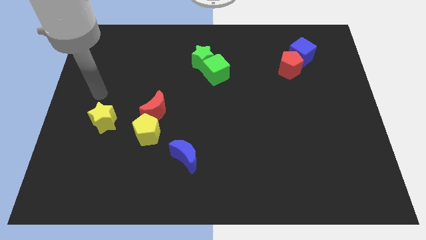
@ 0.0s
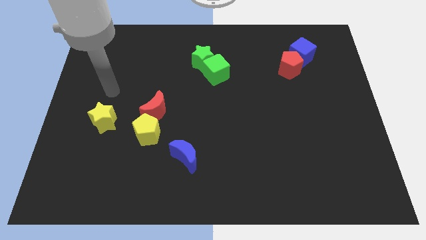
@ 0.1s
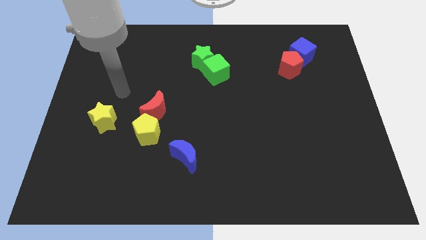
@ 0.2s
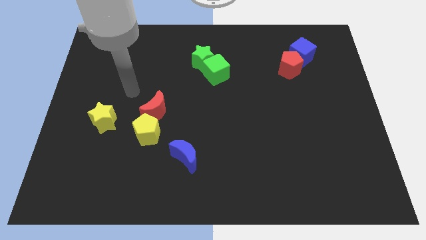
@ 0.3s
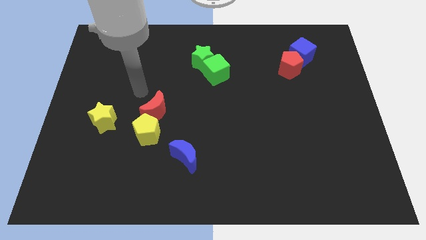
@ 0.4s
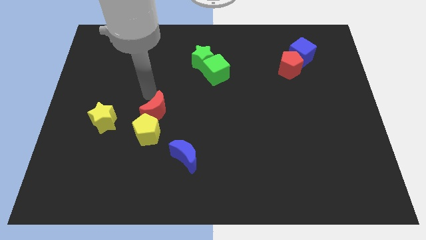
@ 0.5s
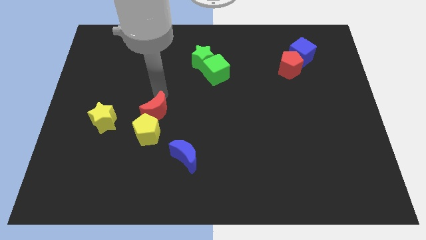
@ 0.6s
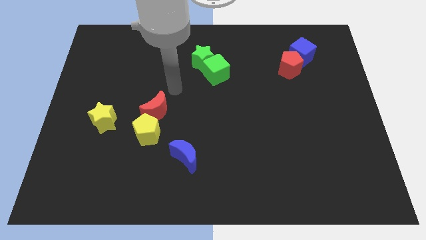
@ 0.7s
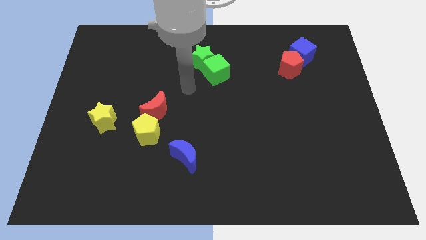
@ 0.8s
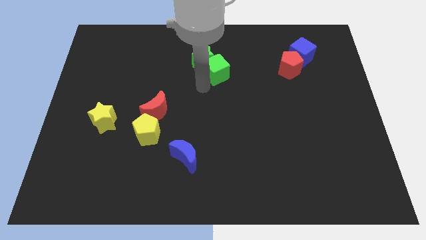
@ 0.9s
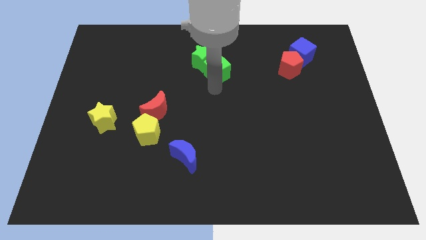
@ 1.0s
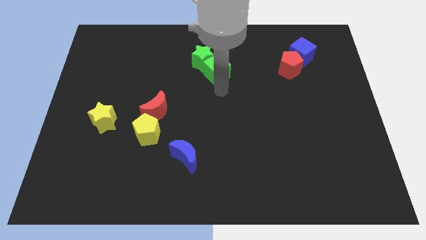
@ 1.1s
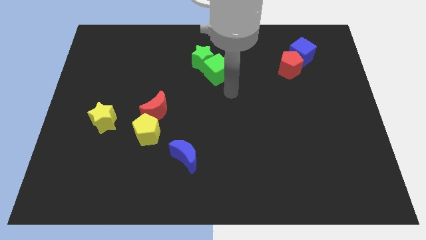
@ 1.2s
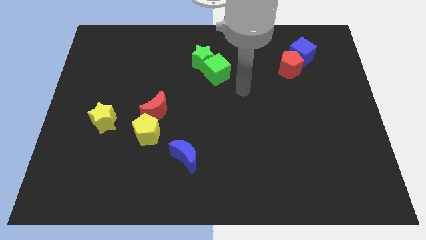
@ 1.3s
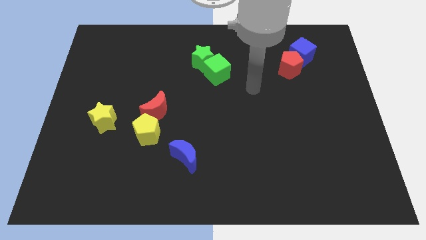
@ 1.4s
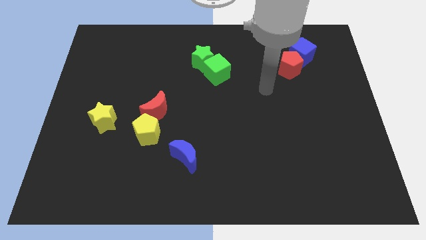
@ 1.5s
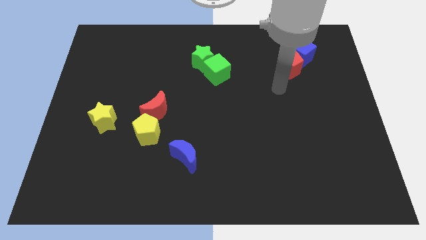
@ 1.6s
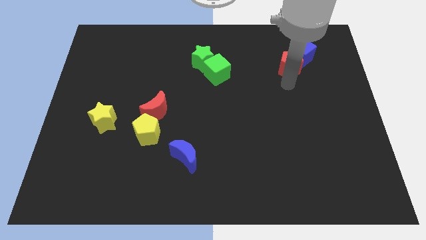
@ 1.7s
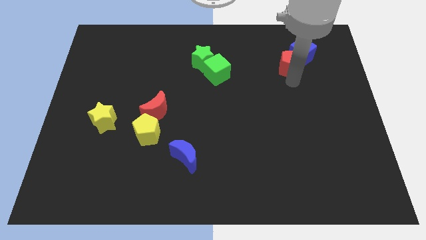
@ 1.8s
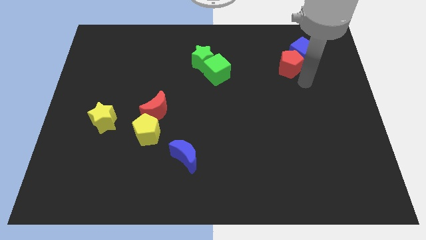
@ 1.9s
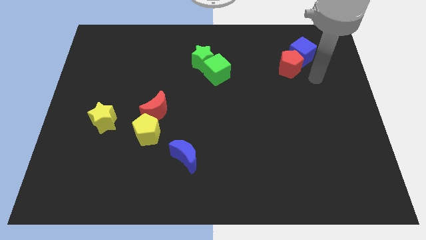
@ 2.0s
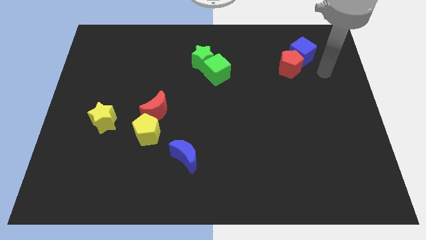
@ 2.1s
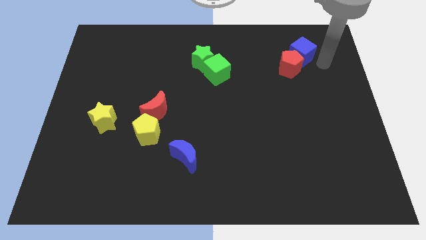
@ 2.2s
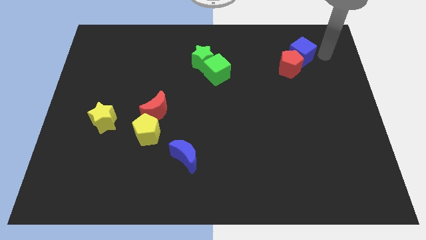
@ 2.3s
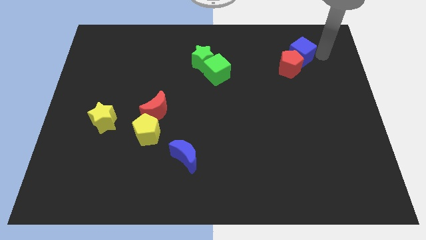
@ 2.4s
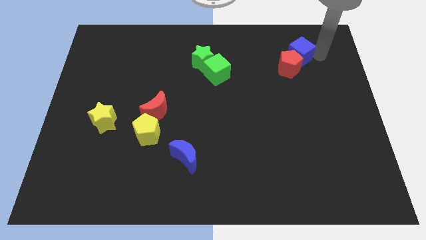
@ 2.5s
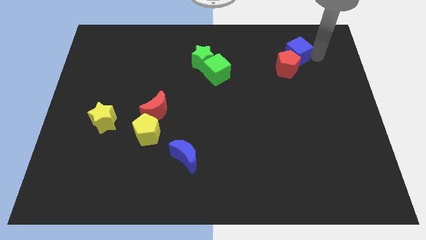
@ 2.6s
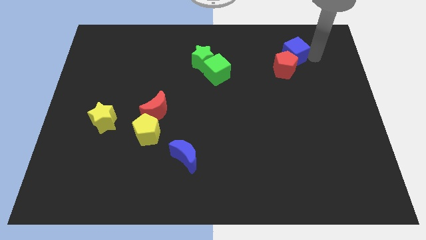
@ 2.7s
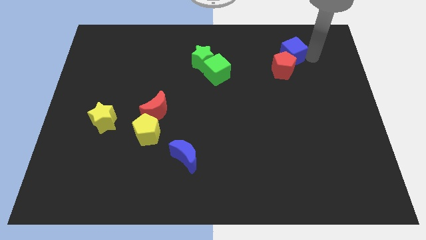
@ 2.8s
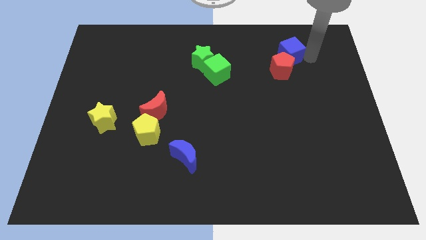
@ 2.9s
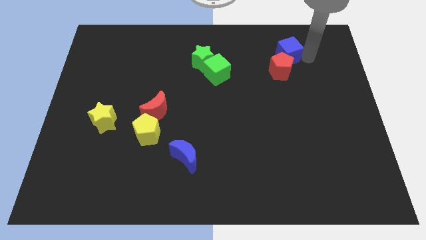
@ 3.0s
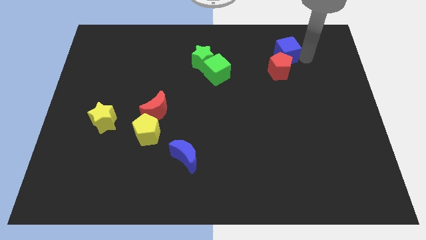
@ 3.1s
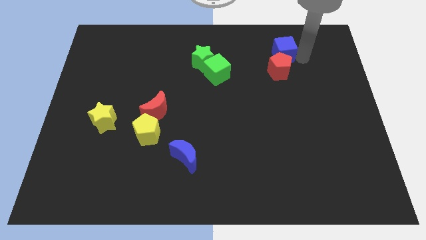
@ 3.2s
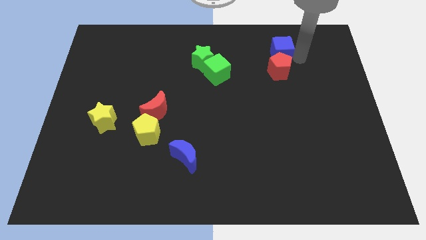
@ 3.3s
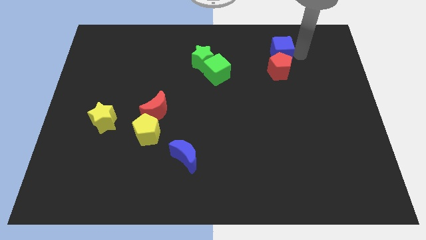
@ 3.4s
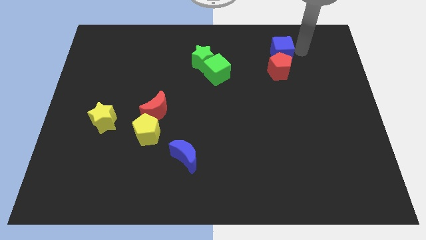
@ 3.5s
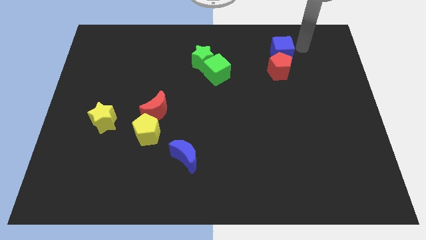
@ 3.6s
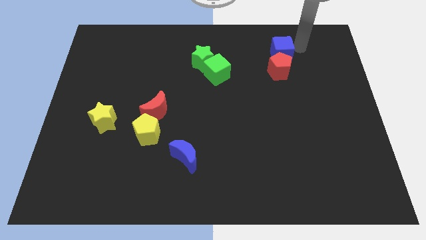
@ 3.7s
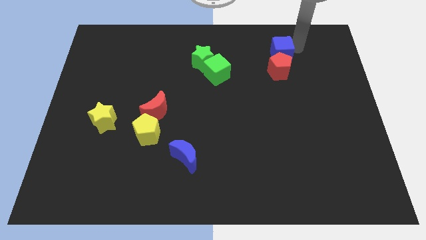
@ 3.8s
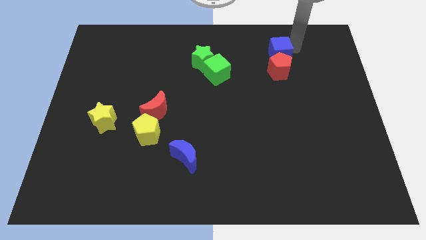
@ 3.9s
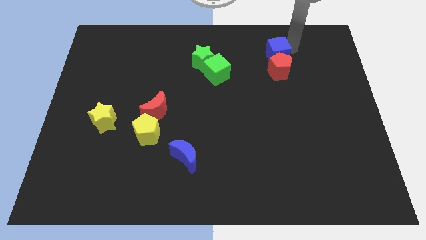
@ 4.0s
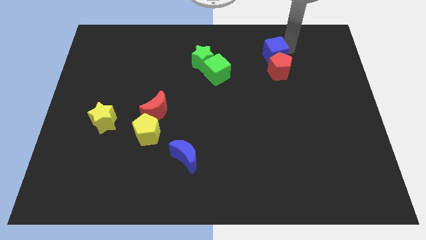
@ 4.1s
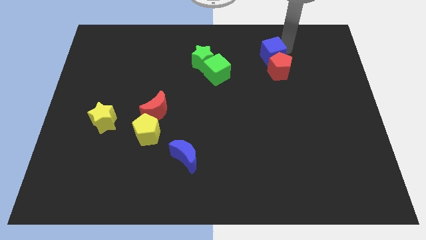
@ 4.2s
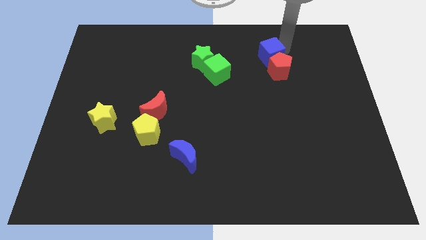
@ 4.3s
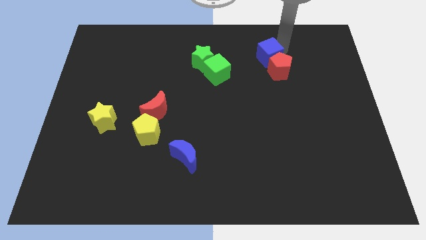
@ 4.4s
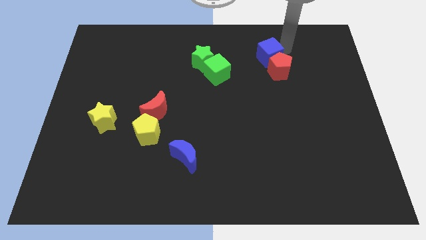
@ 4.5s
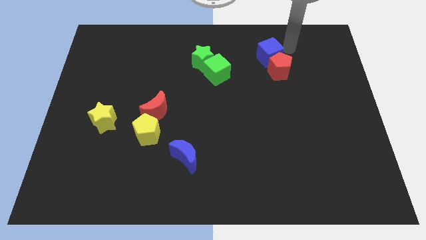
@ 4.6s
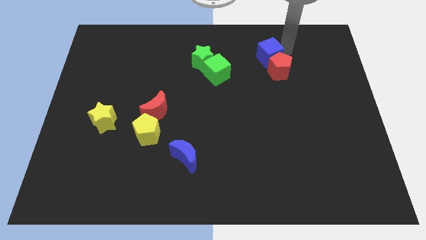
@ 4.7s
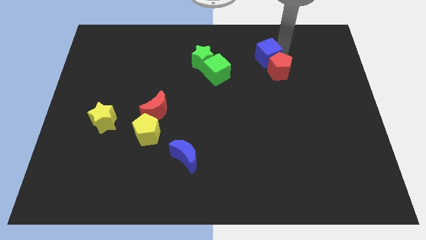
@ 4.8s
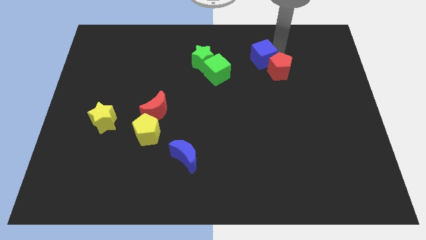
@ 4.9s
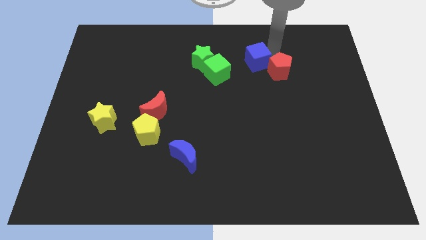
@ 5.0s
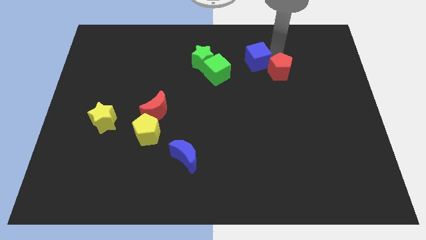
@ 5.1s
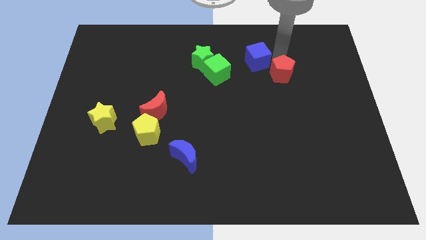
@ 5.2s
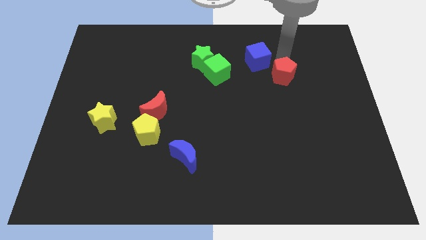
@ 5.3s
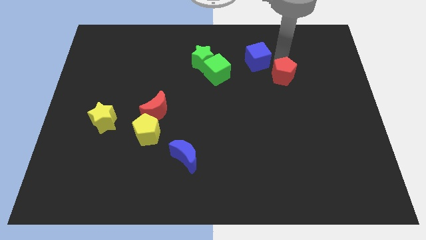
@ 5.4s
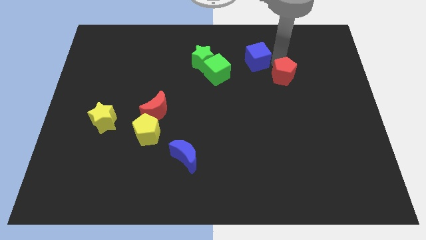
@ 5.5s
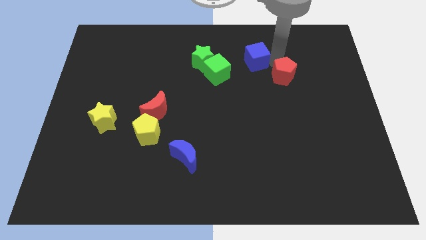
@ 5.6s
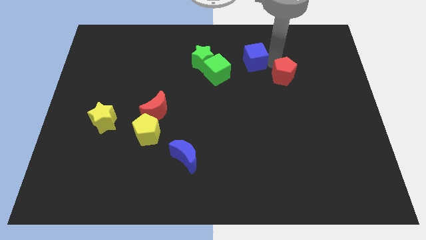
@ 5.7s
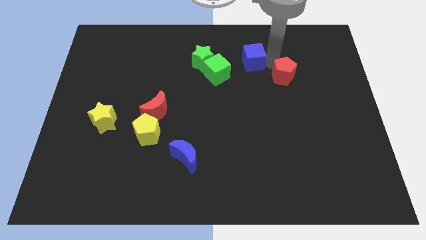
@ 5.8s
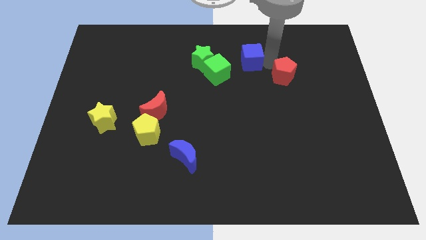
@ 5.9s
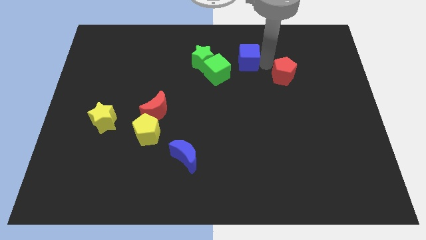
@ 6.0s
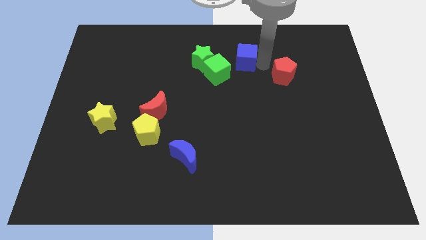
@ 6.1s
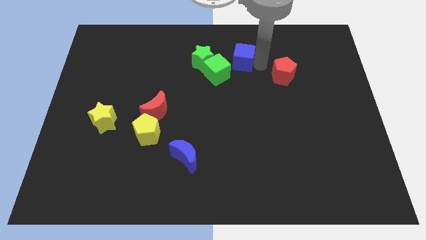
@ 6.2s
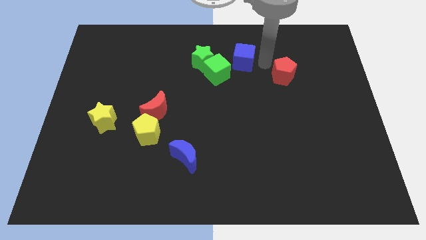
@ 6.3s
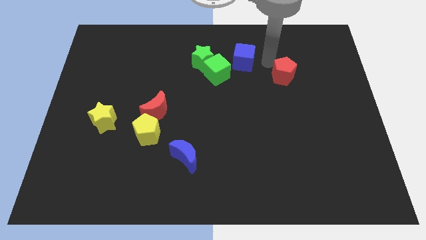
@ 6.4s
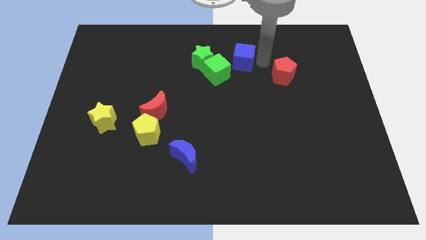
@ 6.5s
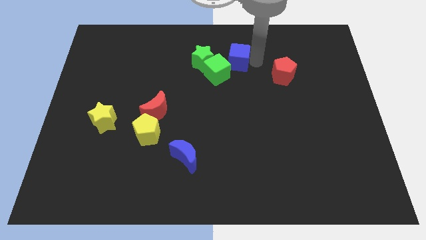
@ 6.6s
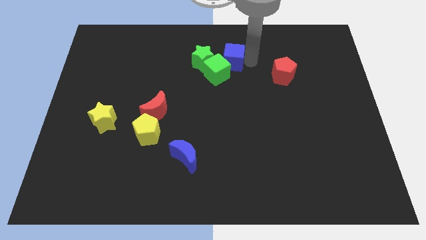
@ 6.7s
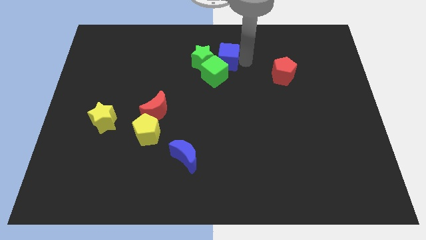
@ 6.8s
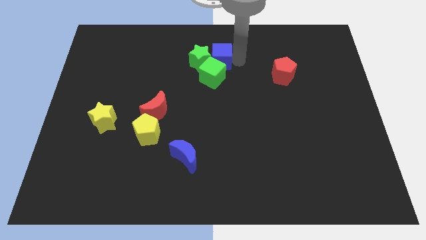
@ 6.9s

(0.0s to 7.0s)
push the blue cube towards the green star

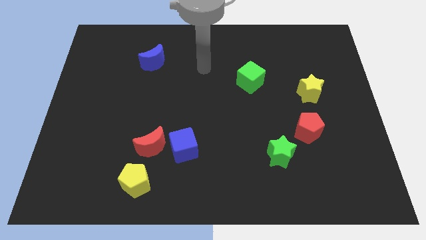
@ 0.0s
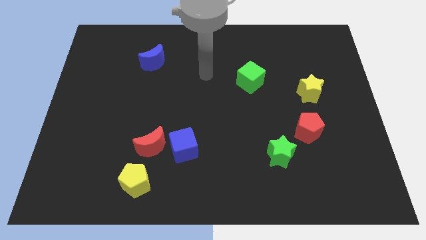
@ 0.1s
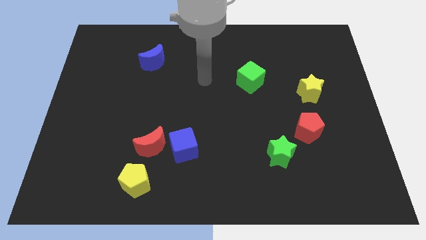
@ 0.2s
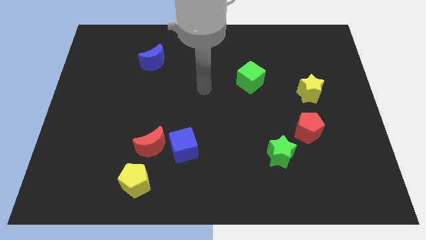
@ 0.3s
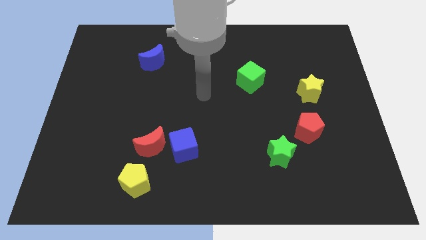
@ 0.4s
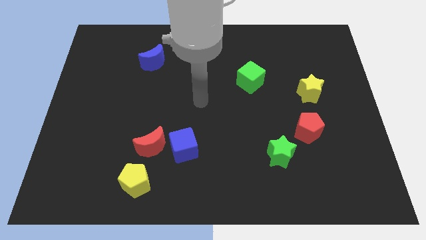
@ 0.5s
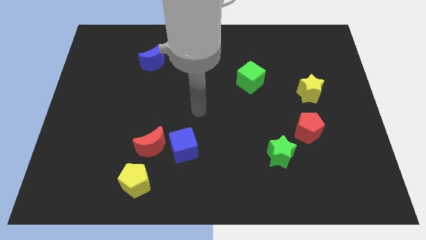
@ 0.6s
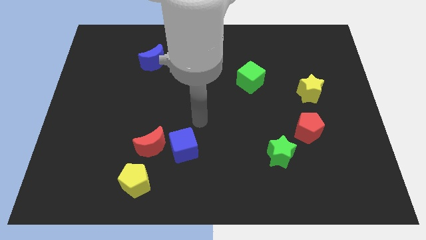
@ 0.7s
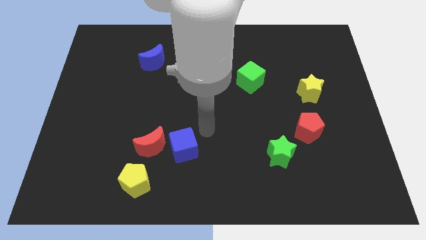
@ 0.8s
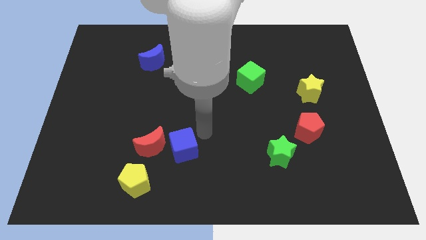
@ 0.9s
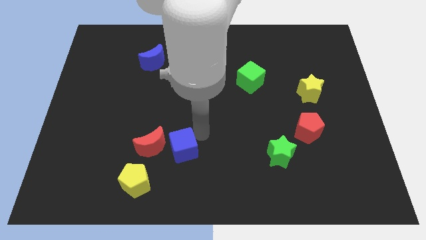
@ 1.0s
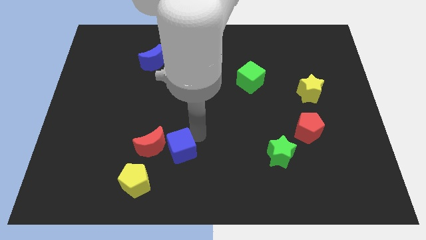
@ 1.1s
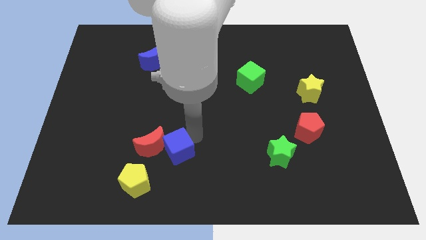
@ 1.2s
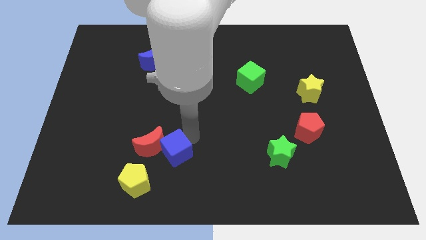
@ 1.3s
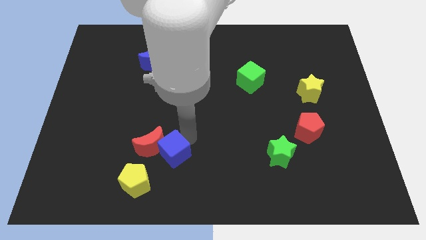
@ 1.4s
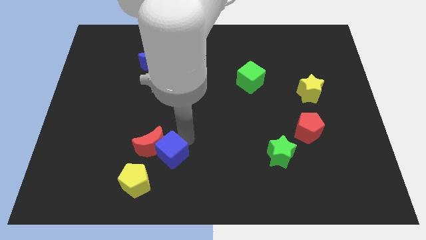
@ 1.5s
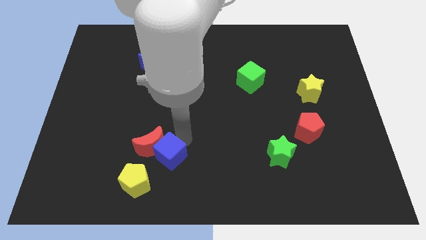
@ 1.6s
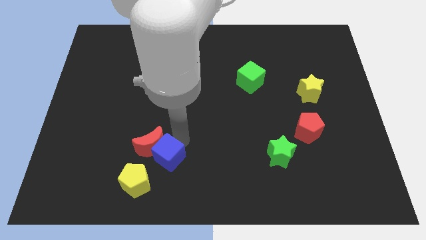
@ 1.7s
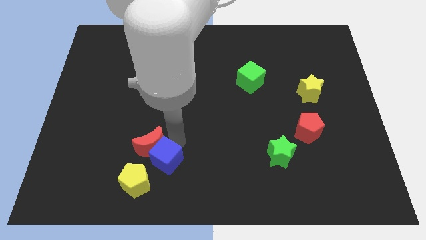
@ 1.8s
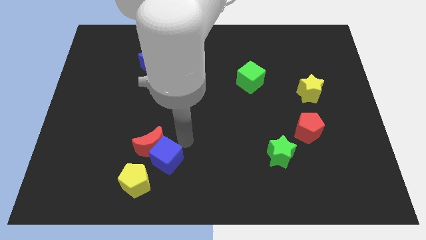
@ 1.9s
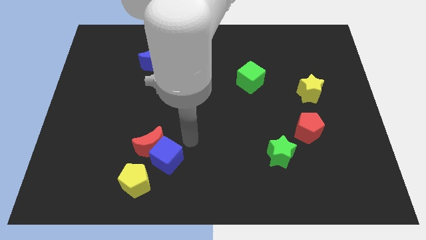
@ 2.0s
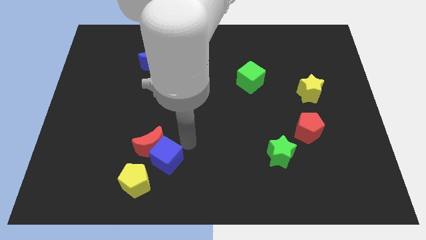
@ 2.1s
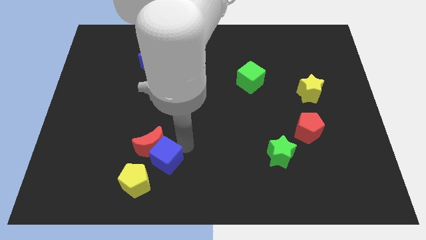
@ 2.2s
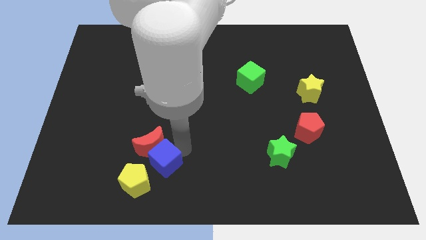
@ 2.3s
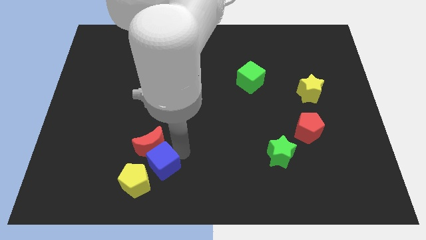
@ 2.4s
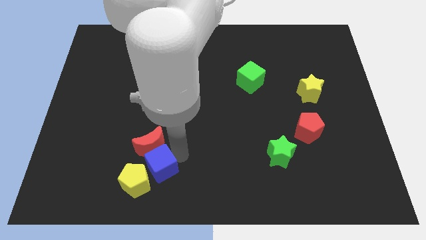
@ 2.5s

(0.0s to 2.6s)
put the blue cube towards the yellow pentagon
